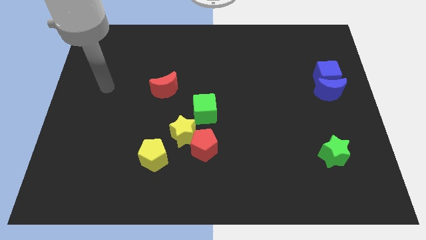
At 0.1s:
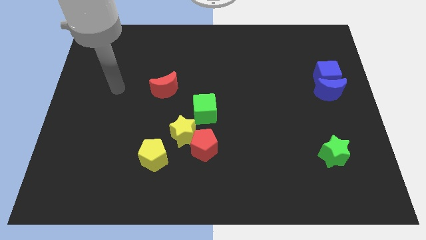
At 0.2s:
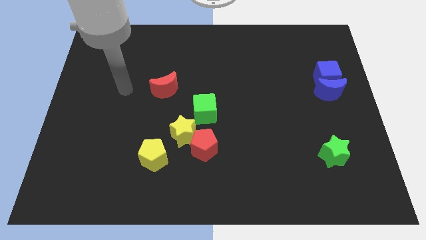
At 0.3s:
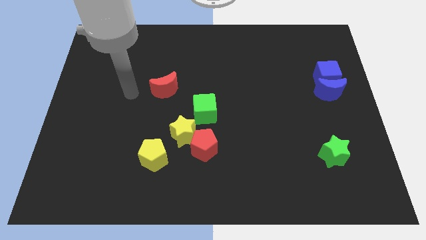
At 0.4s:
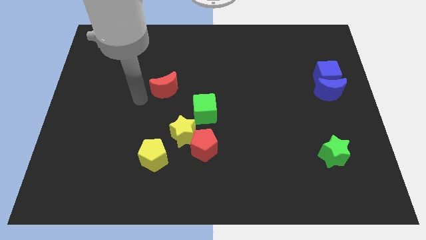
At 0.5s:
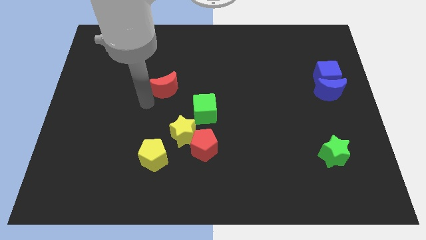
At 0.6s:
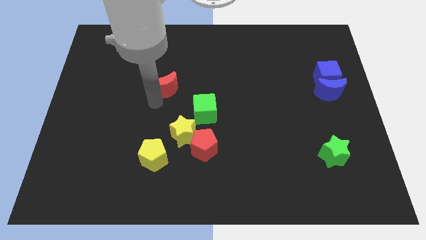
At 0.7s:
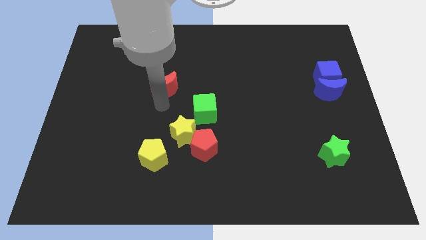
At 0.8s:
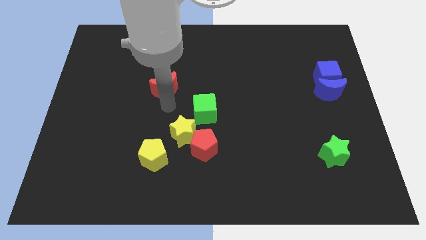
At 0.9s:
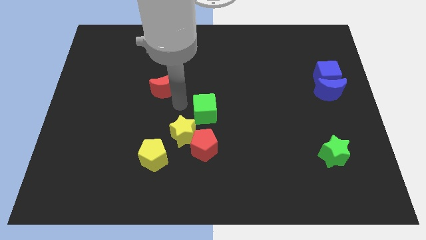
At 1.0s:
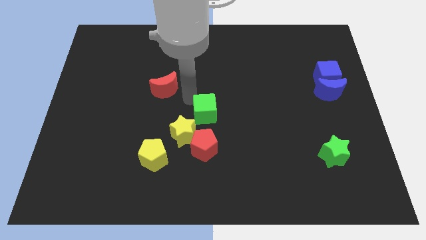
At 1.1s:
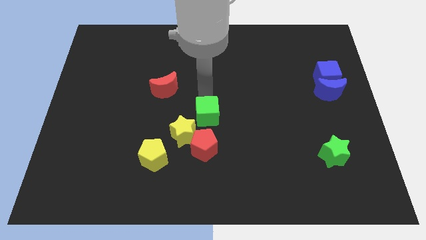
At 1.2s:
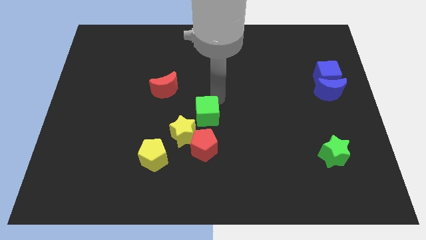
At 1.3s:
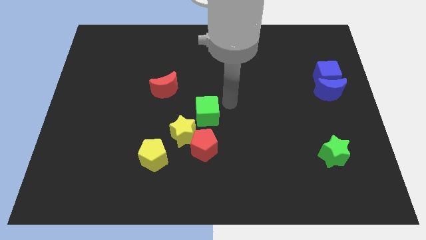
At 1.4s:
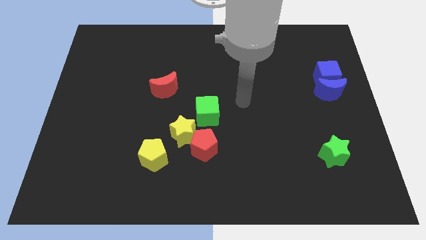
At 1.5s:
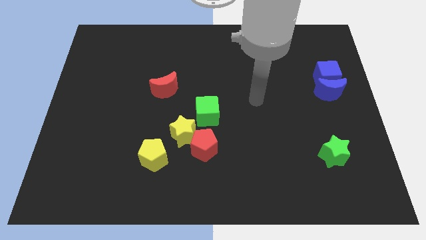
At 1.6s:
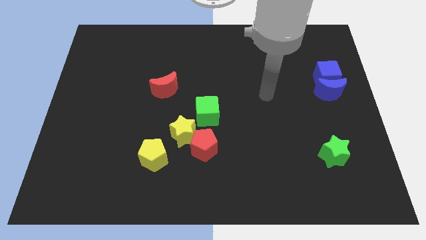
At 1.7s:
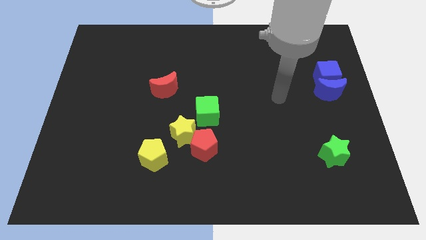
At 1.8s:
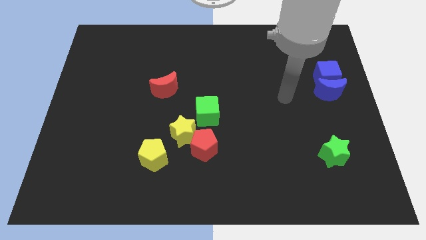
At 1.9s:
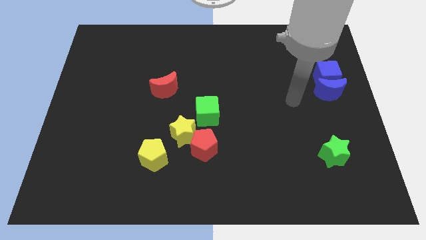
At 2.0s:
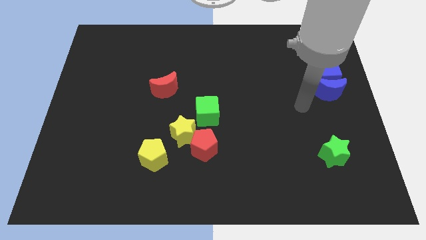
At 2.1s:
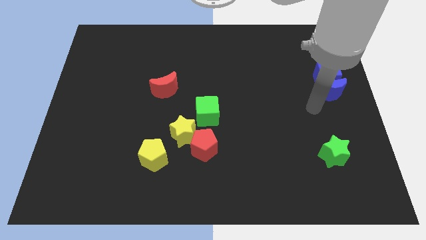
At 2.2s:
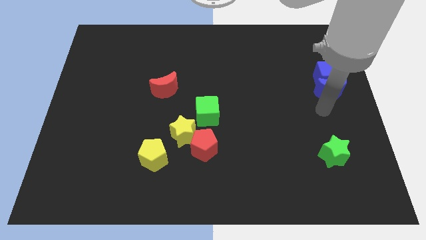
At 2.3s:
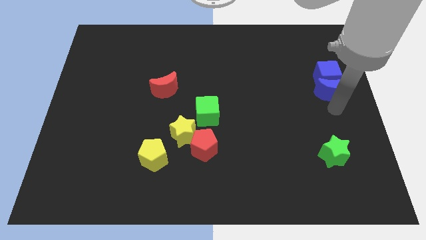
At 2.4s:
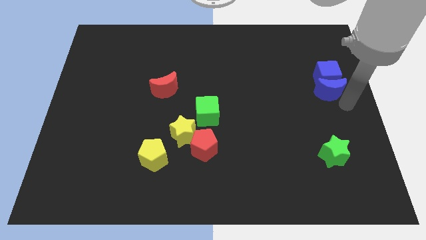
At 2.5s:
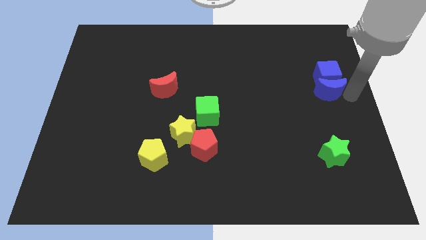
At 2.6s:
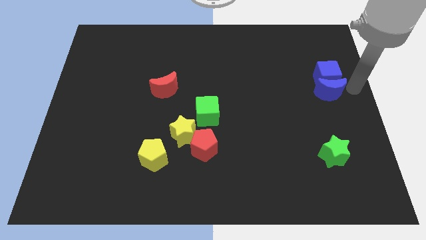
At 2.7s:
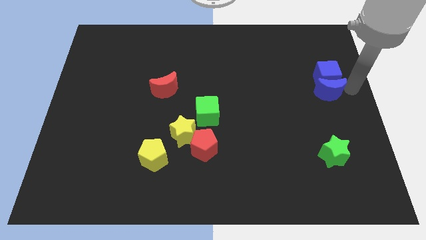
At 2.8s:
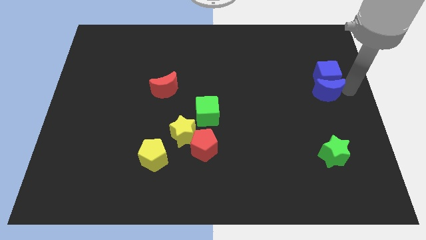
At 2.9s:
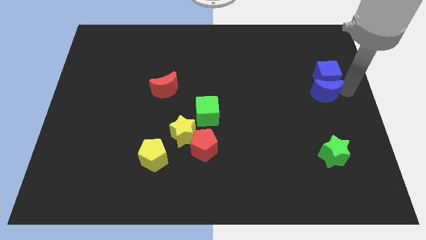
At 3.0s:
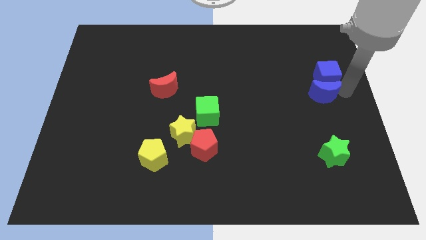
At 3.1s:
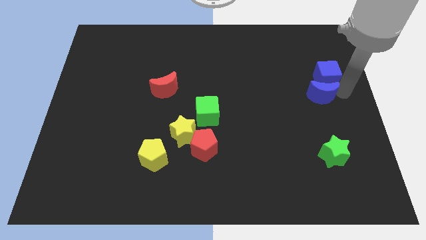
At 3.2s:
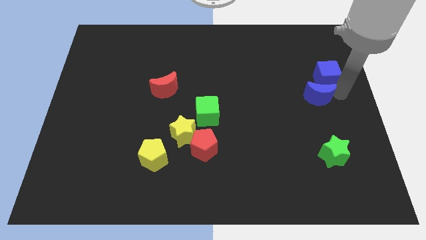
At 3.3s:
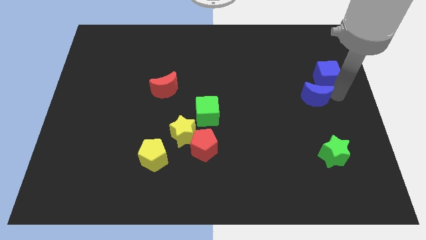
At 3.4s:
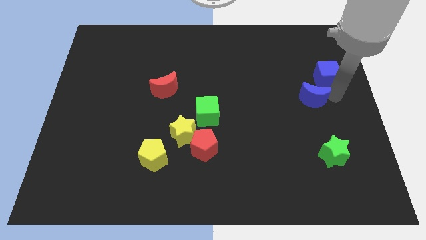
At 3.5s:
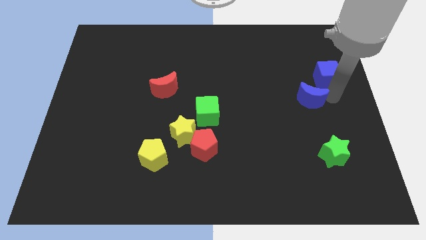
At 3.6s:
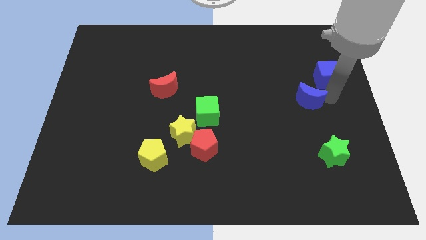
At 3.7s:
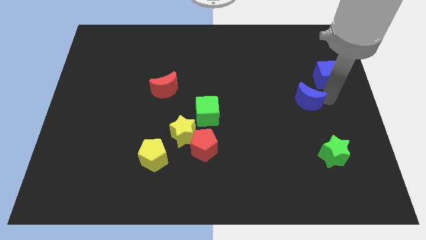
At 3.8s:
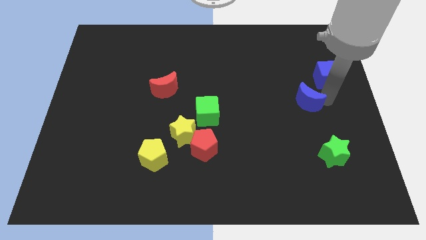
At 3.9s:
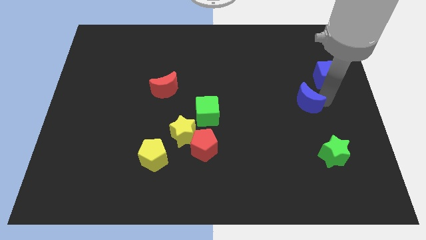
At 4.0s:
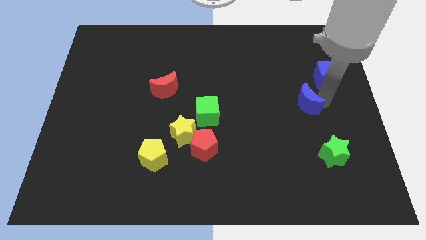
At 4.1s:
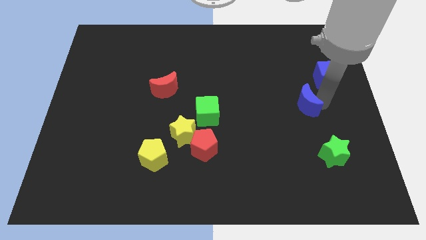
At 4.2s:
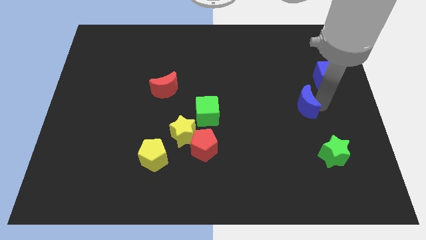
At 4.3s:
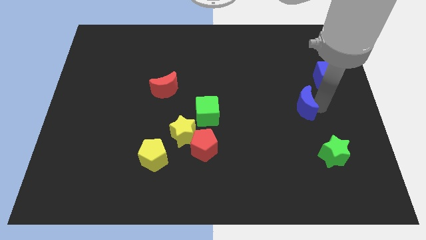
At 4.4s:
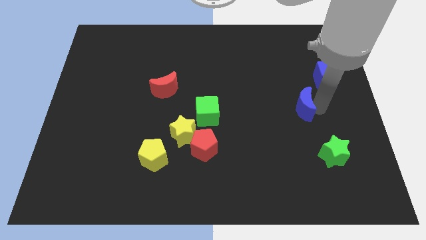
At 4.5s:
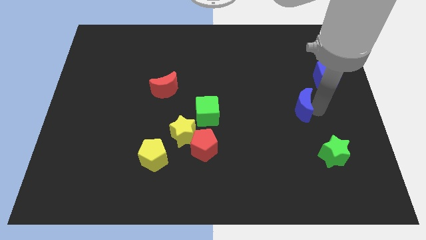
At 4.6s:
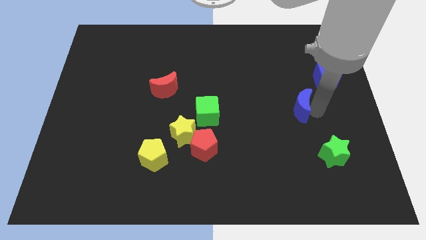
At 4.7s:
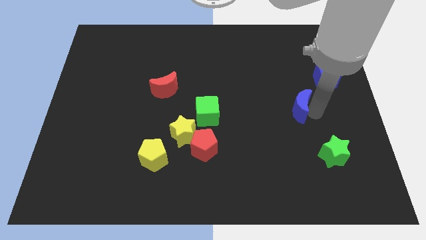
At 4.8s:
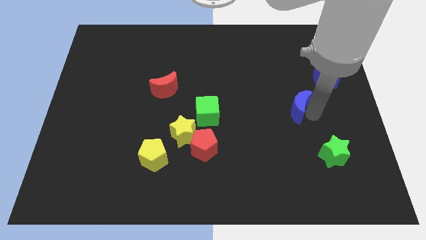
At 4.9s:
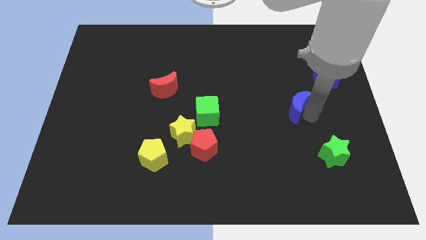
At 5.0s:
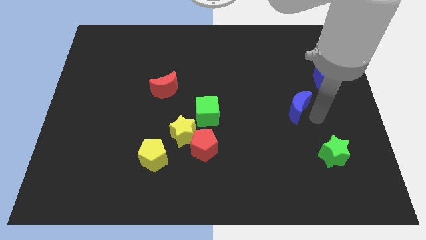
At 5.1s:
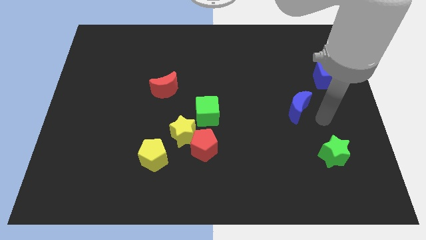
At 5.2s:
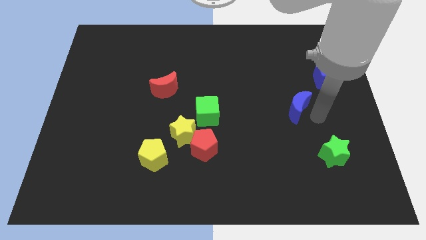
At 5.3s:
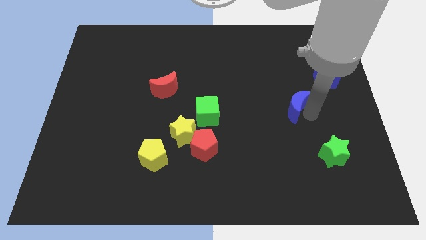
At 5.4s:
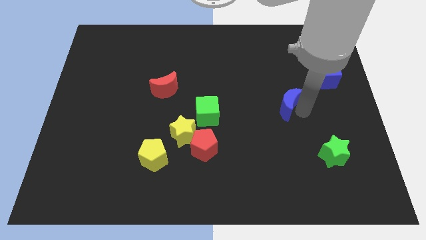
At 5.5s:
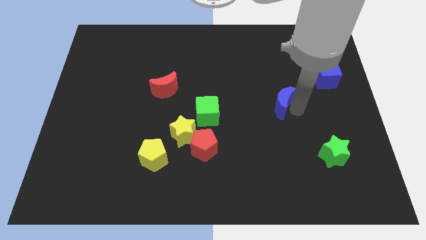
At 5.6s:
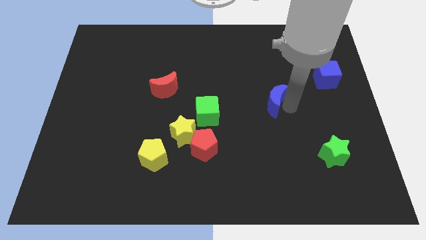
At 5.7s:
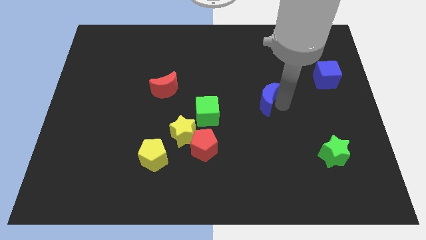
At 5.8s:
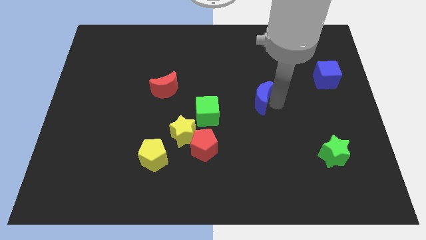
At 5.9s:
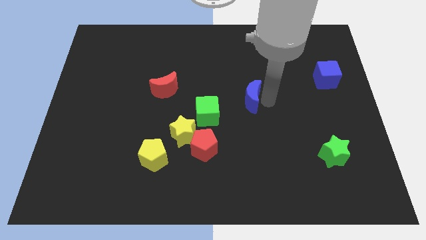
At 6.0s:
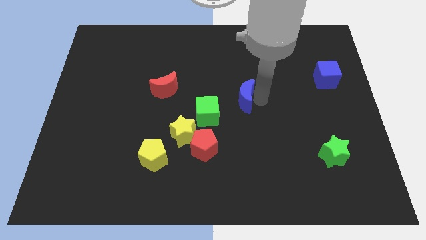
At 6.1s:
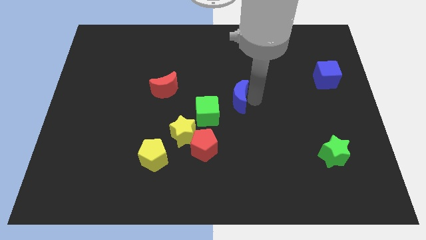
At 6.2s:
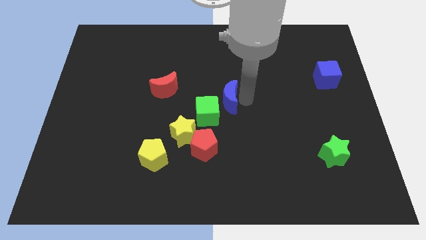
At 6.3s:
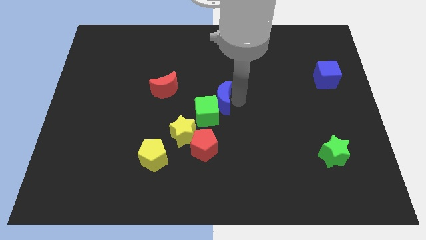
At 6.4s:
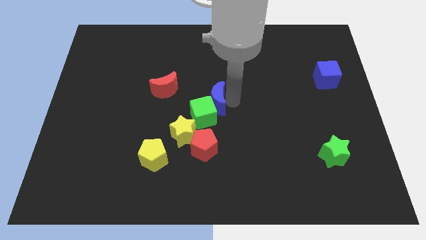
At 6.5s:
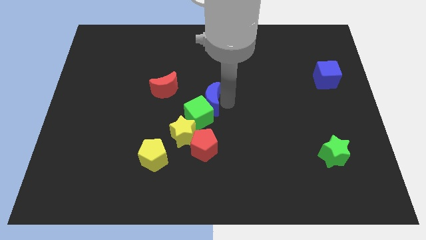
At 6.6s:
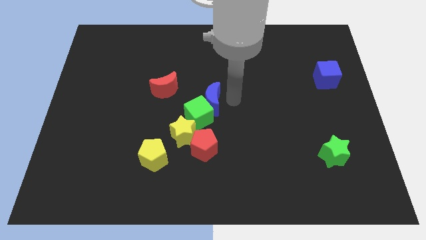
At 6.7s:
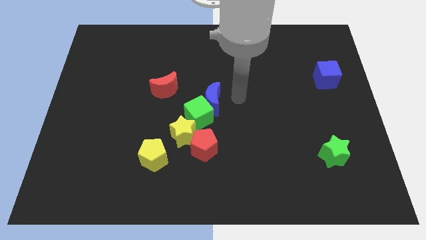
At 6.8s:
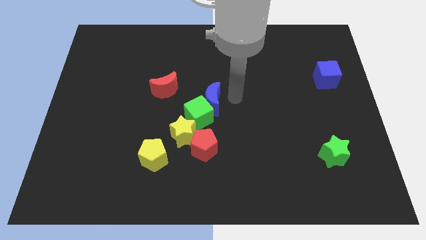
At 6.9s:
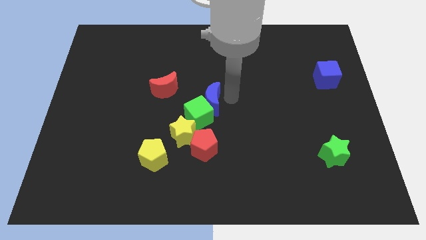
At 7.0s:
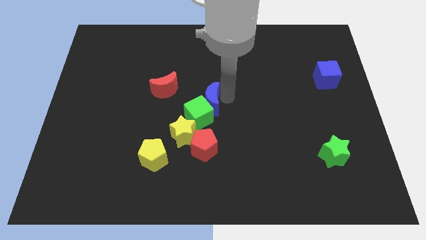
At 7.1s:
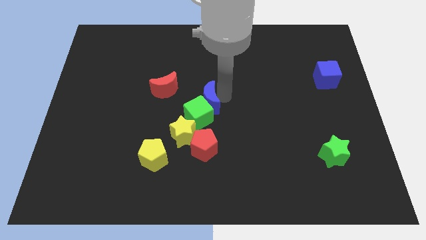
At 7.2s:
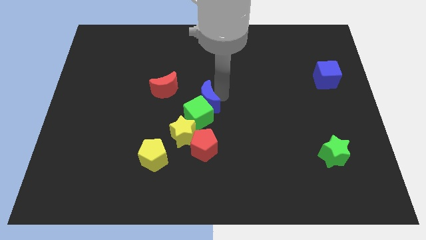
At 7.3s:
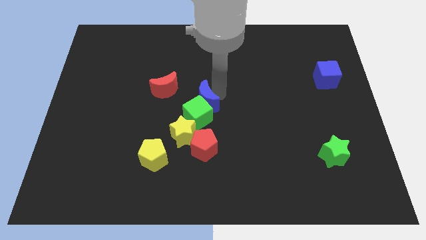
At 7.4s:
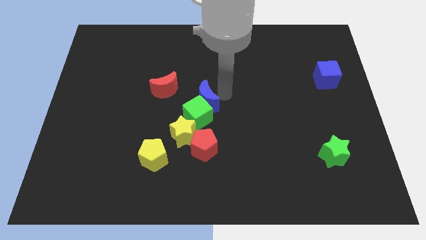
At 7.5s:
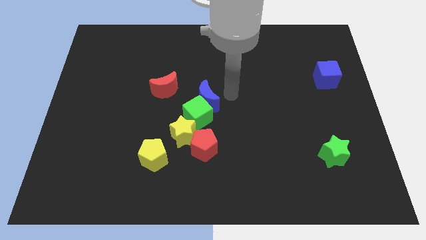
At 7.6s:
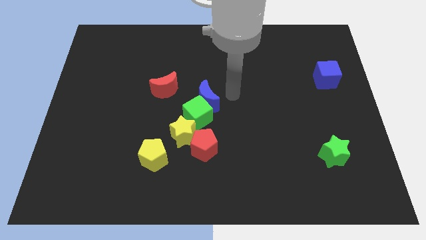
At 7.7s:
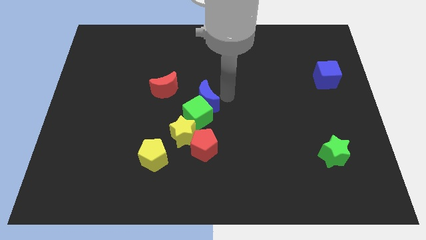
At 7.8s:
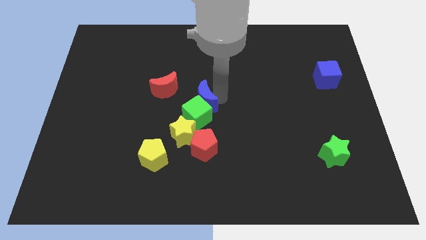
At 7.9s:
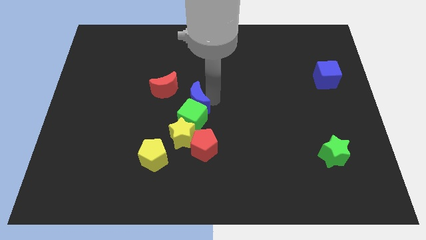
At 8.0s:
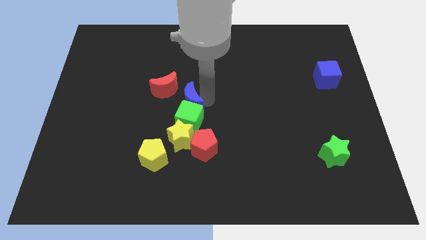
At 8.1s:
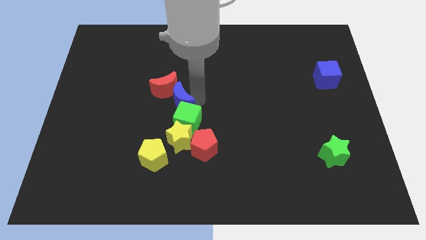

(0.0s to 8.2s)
push the blue moon to the bottom side of the red moon
